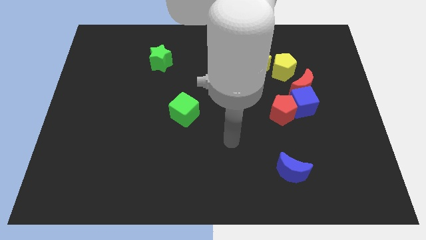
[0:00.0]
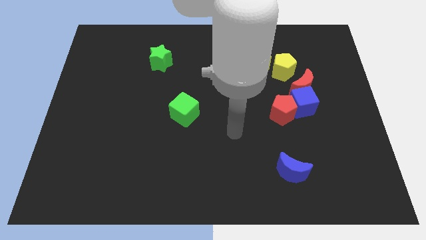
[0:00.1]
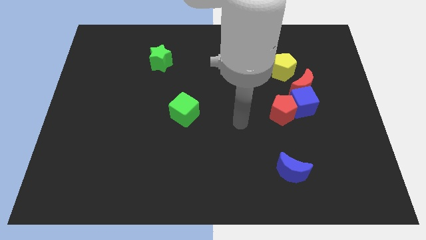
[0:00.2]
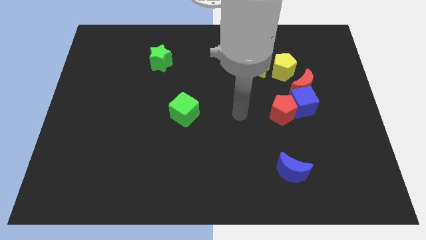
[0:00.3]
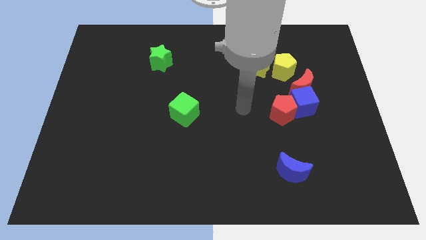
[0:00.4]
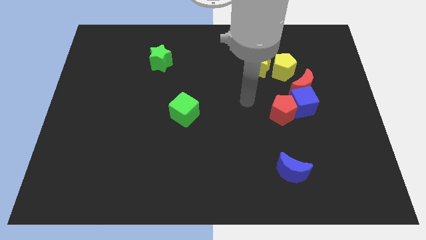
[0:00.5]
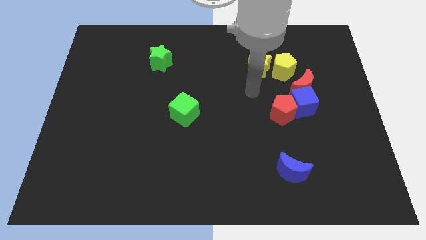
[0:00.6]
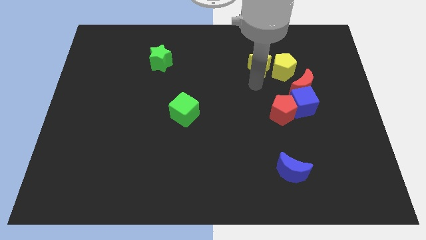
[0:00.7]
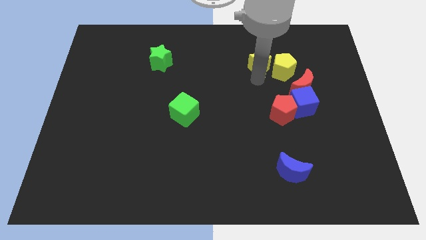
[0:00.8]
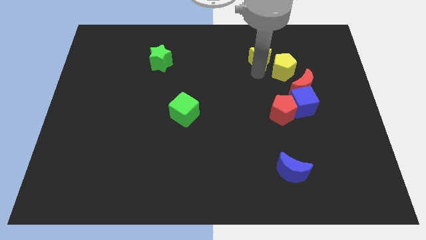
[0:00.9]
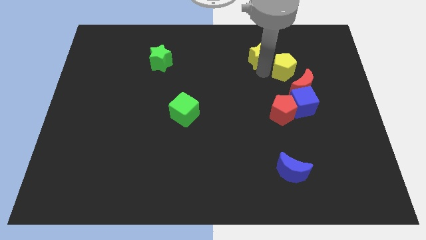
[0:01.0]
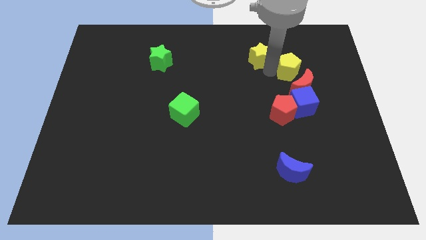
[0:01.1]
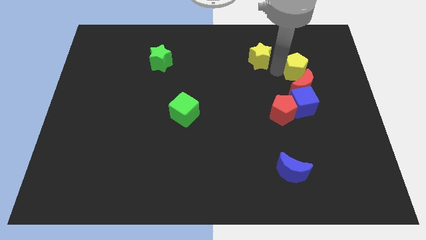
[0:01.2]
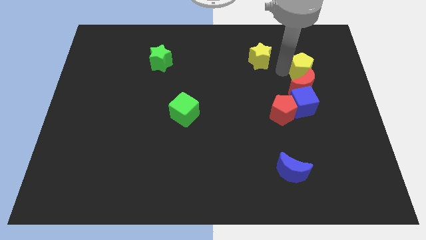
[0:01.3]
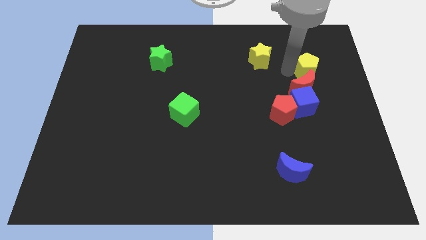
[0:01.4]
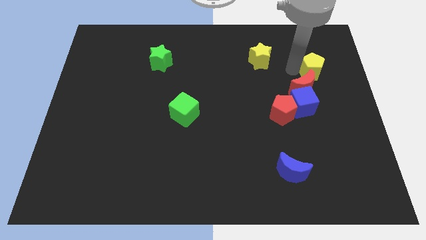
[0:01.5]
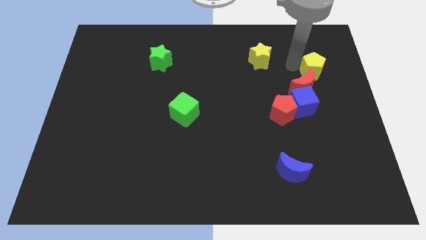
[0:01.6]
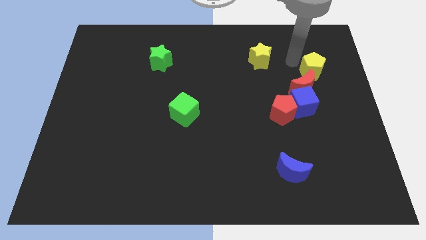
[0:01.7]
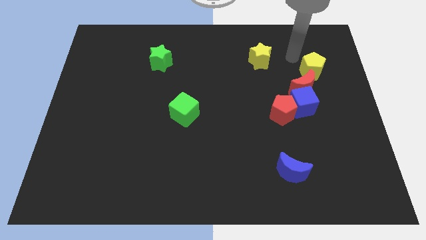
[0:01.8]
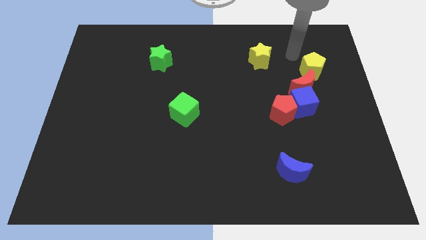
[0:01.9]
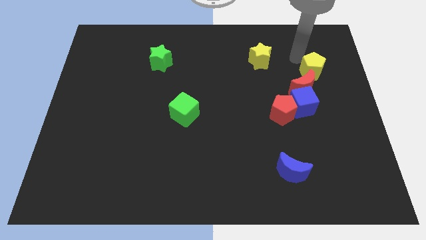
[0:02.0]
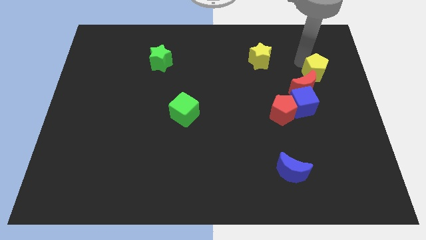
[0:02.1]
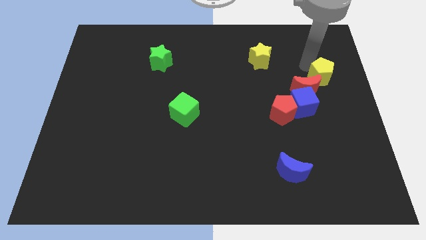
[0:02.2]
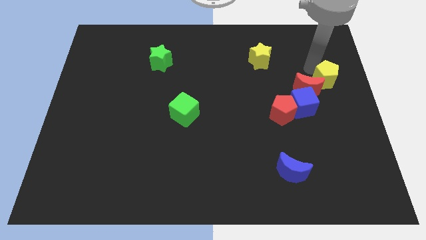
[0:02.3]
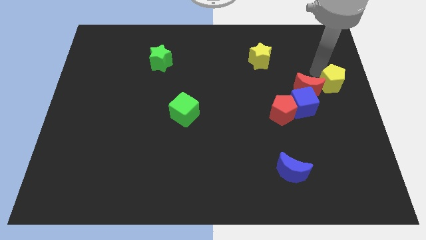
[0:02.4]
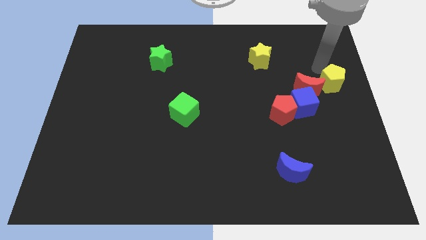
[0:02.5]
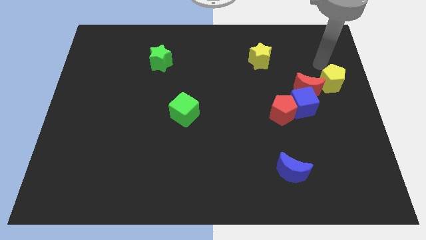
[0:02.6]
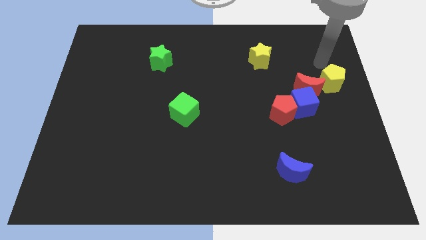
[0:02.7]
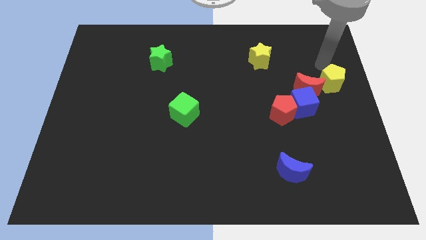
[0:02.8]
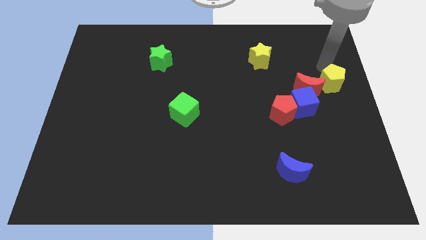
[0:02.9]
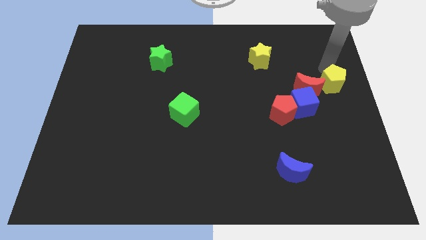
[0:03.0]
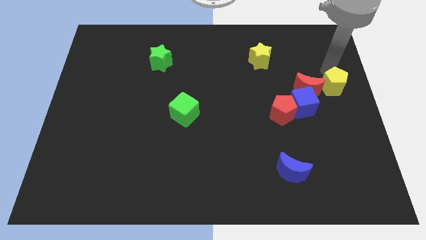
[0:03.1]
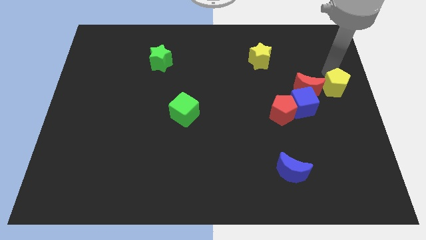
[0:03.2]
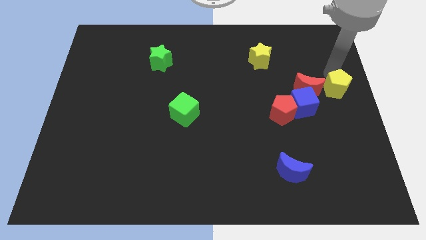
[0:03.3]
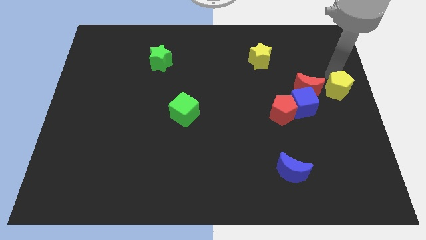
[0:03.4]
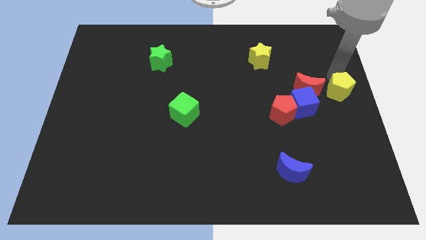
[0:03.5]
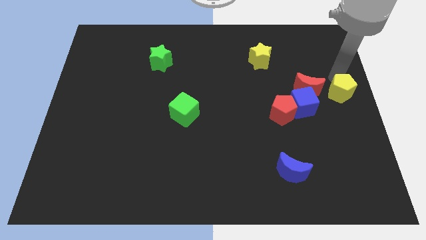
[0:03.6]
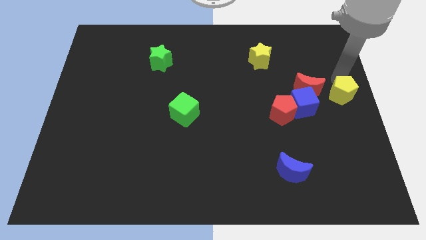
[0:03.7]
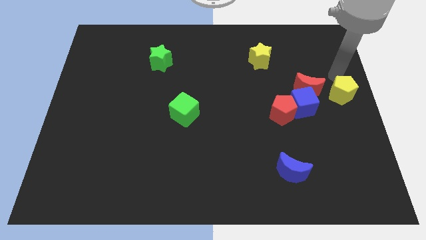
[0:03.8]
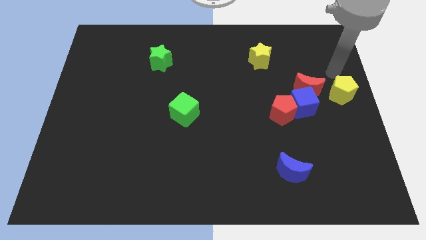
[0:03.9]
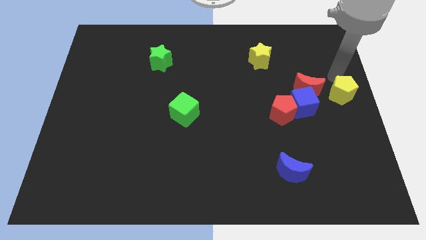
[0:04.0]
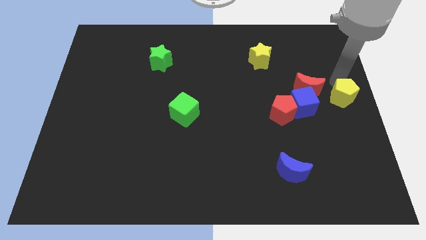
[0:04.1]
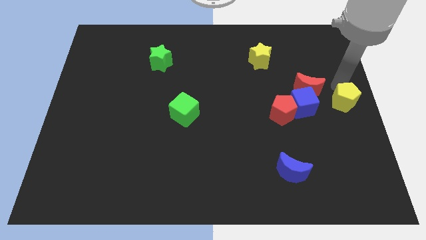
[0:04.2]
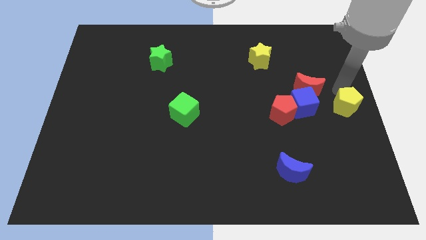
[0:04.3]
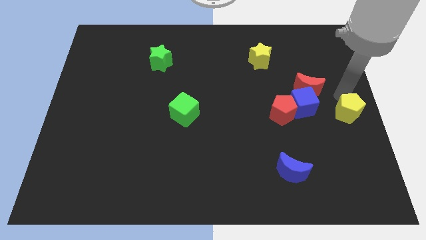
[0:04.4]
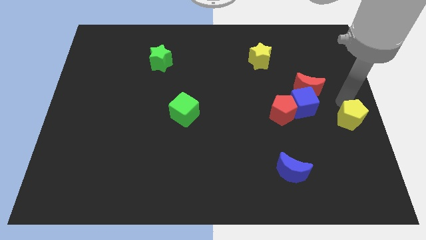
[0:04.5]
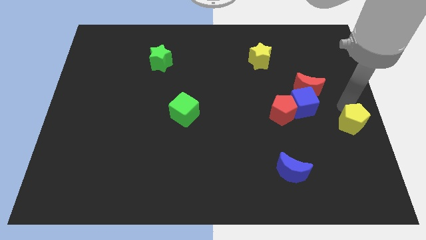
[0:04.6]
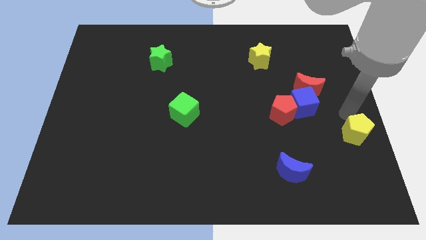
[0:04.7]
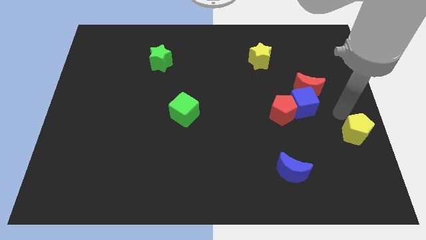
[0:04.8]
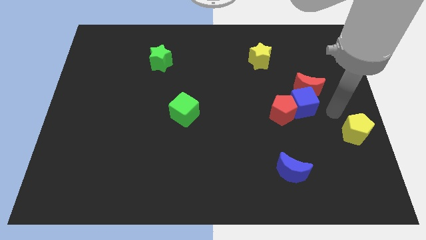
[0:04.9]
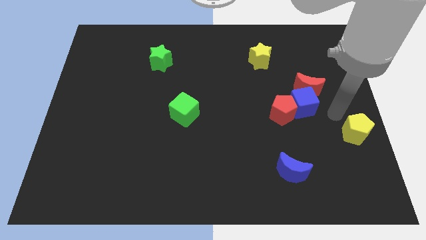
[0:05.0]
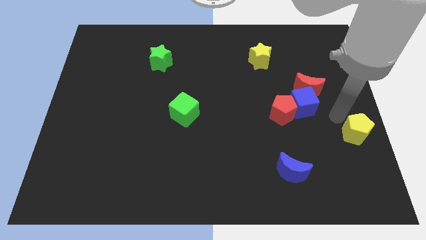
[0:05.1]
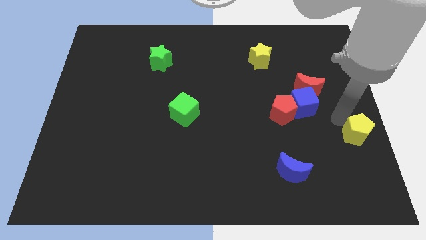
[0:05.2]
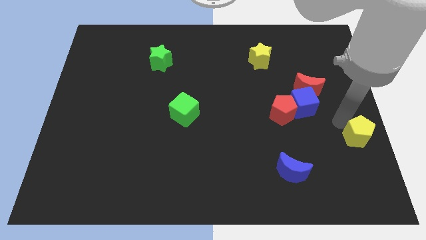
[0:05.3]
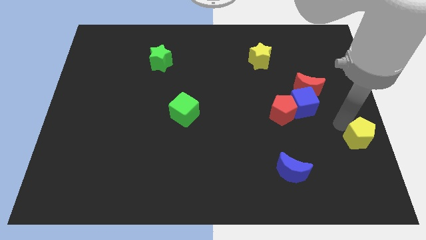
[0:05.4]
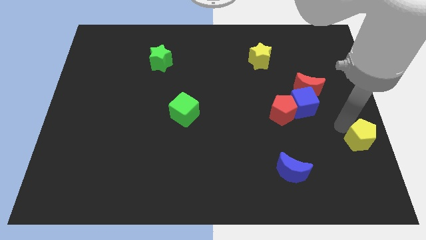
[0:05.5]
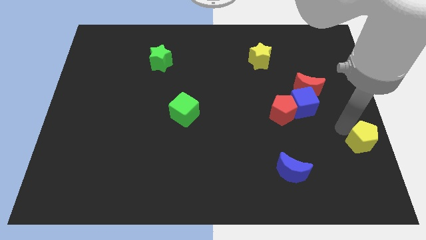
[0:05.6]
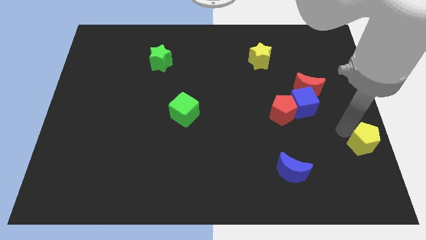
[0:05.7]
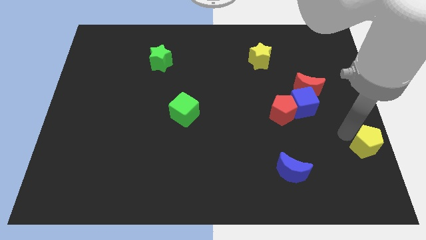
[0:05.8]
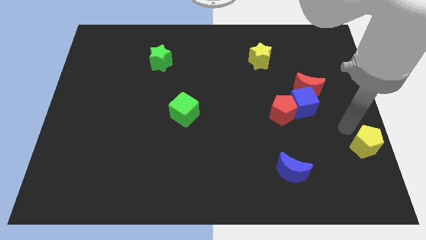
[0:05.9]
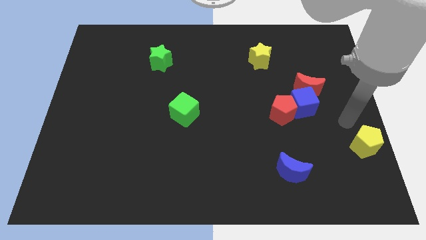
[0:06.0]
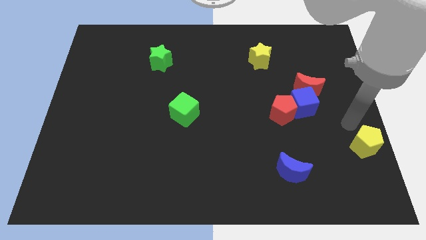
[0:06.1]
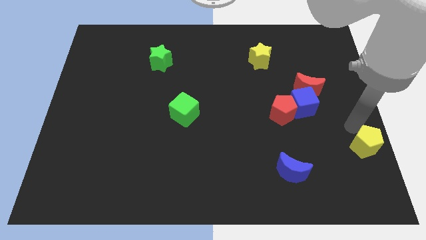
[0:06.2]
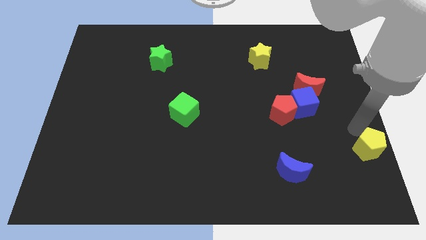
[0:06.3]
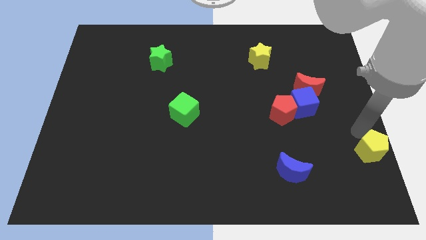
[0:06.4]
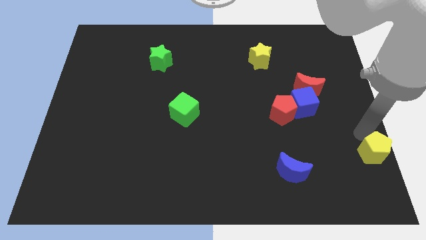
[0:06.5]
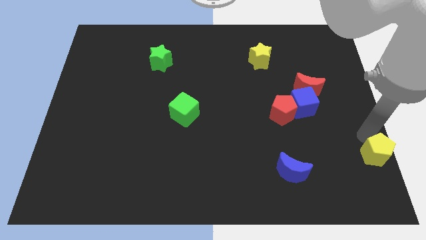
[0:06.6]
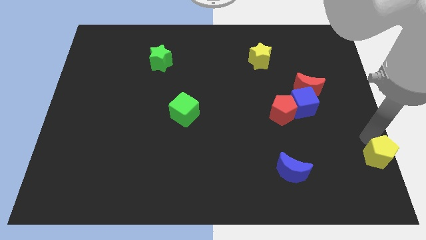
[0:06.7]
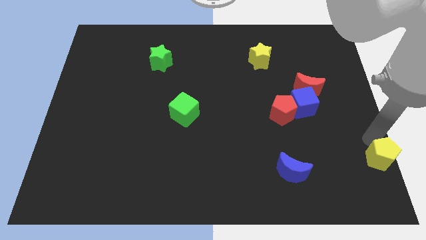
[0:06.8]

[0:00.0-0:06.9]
move the yellow pentagon to the bottom right corner
